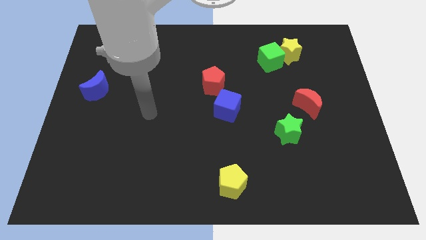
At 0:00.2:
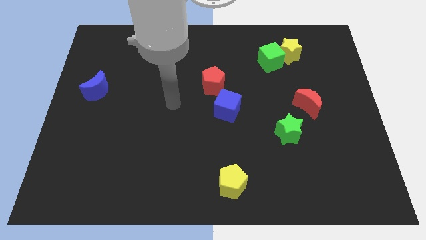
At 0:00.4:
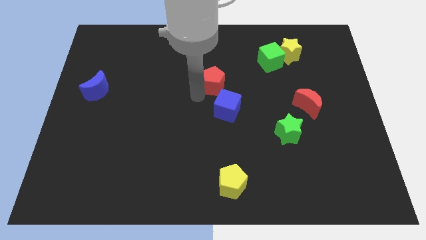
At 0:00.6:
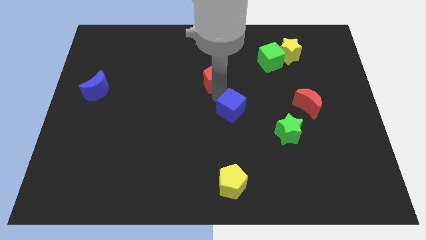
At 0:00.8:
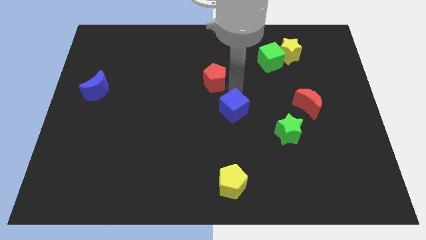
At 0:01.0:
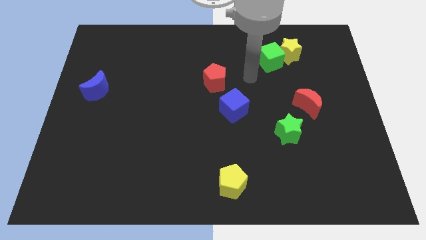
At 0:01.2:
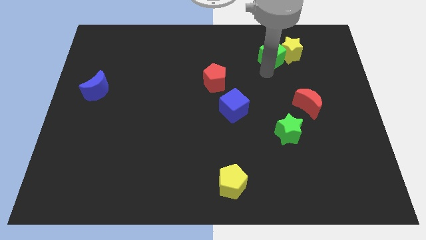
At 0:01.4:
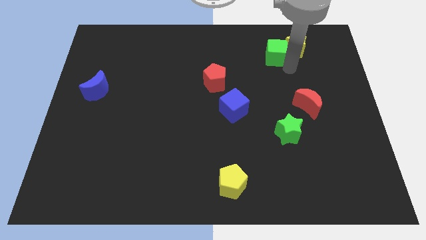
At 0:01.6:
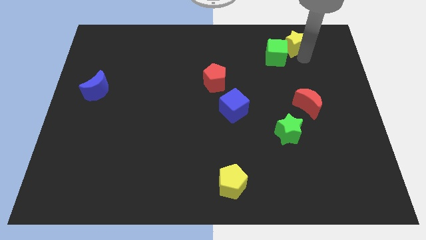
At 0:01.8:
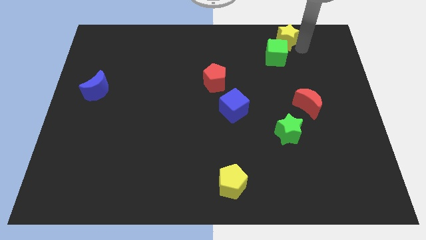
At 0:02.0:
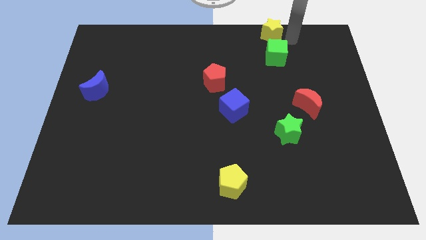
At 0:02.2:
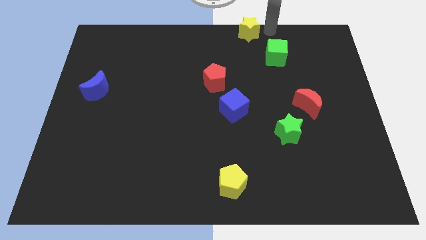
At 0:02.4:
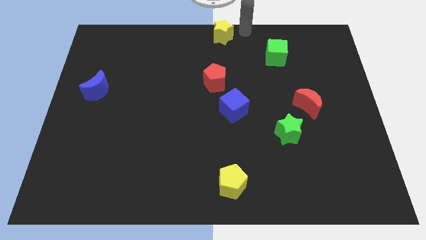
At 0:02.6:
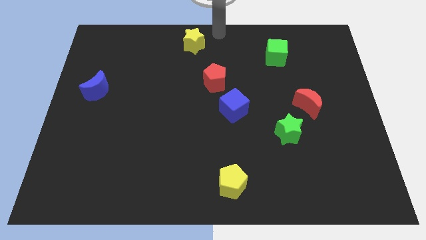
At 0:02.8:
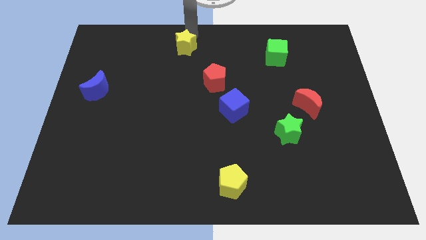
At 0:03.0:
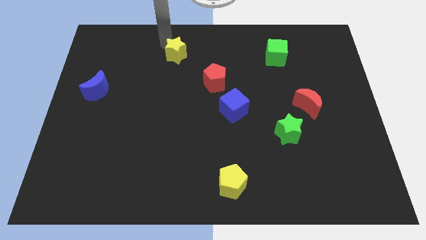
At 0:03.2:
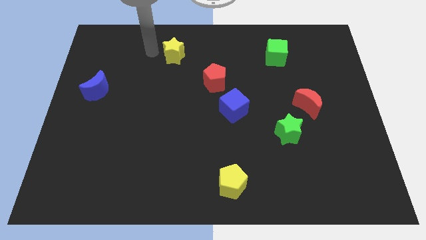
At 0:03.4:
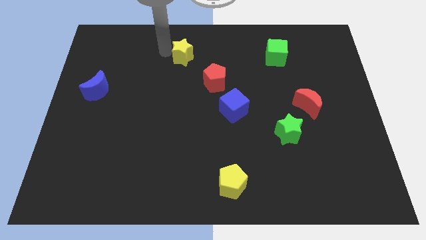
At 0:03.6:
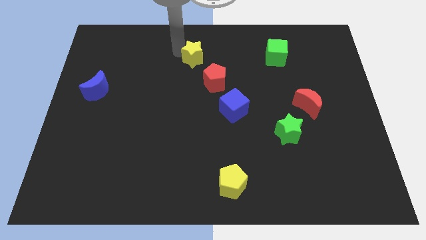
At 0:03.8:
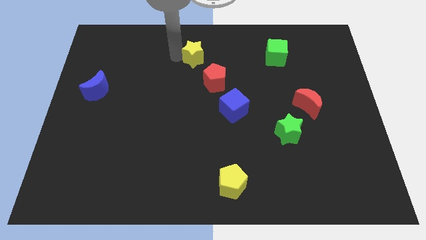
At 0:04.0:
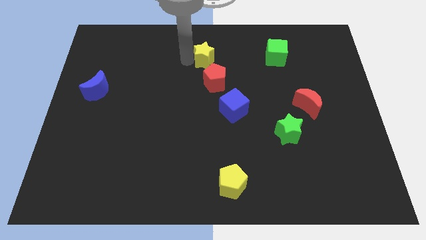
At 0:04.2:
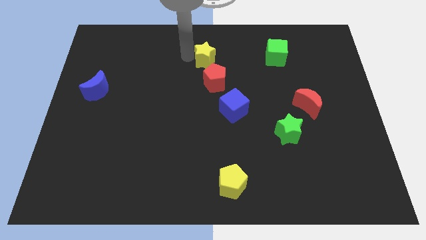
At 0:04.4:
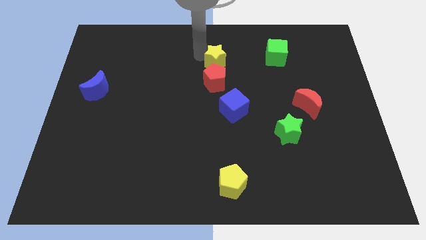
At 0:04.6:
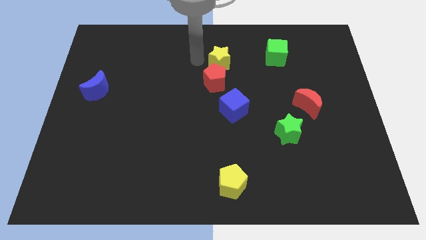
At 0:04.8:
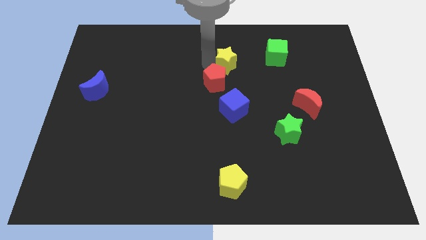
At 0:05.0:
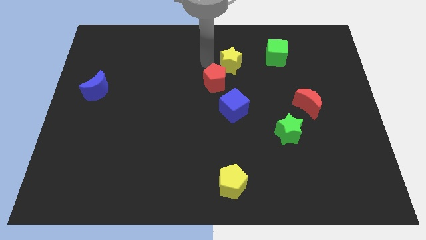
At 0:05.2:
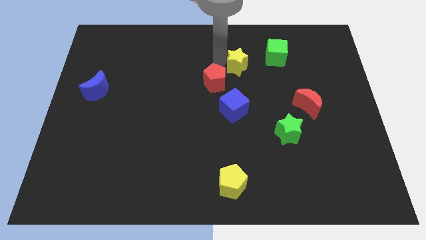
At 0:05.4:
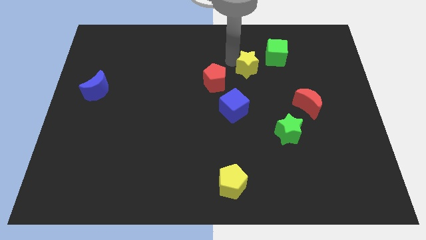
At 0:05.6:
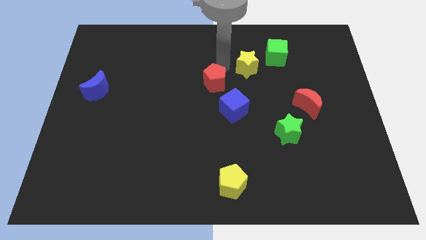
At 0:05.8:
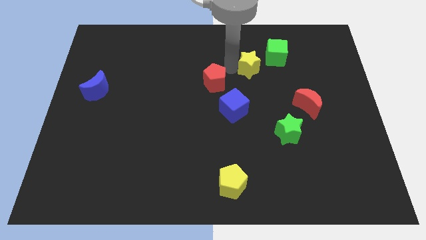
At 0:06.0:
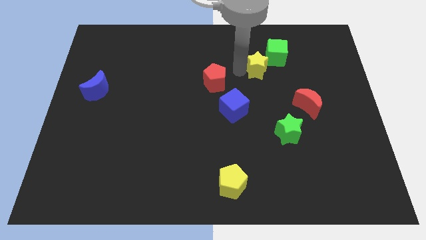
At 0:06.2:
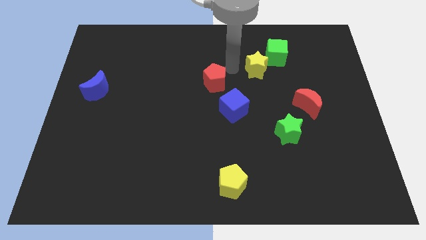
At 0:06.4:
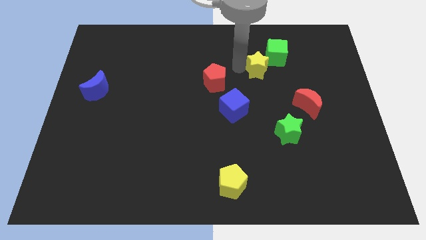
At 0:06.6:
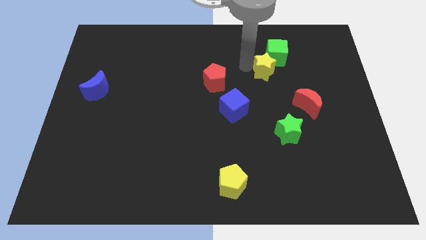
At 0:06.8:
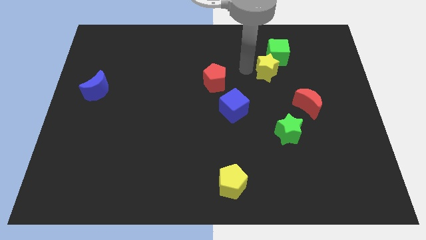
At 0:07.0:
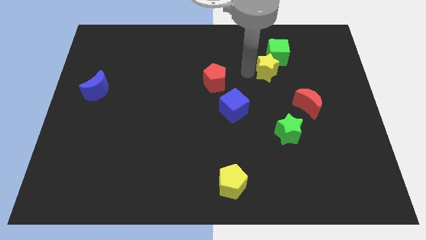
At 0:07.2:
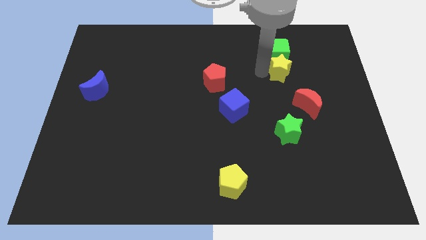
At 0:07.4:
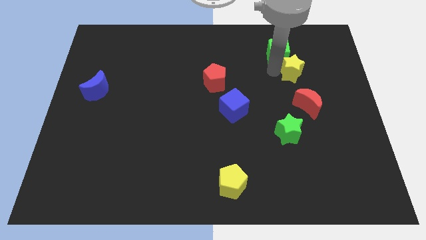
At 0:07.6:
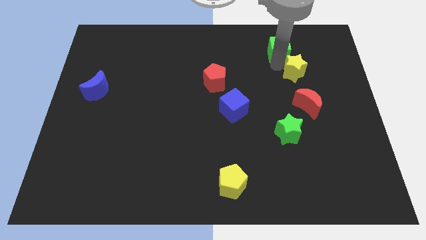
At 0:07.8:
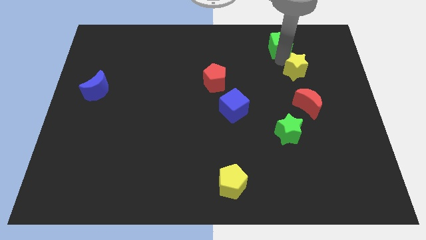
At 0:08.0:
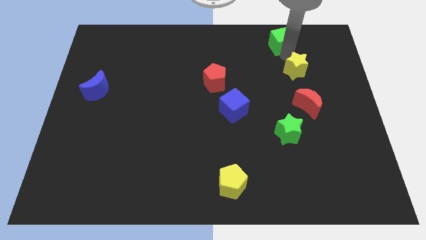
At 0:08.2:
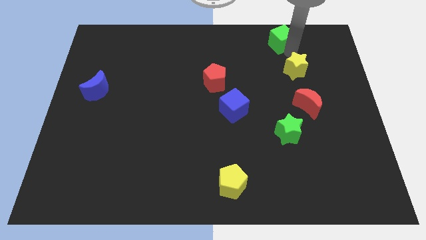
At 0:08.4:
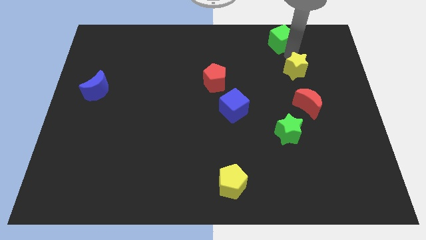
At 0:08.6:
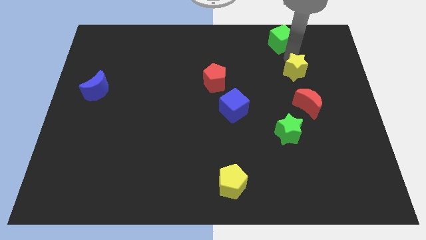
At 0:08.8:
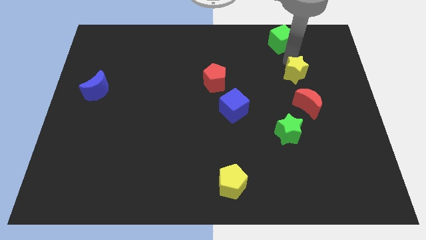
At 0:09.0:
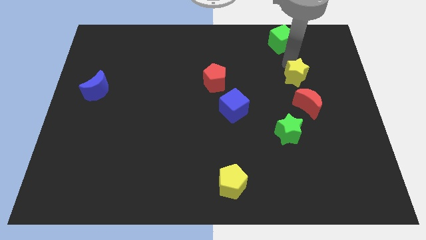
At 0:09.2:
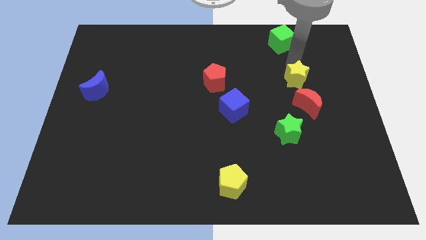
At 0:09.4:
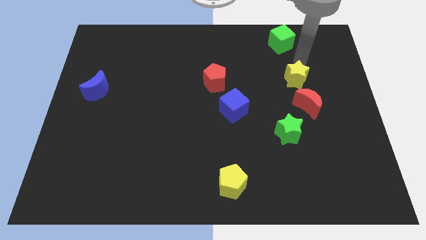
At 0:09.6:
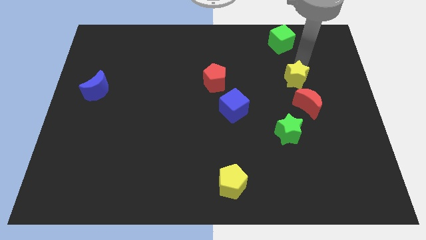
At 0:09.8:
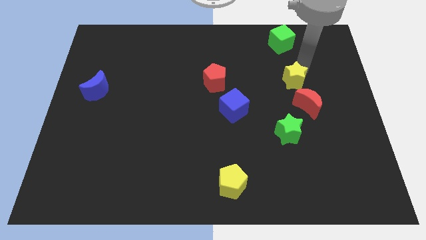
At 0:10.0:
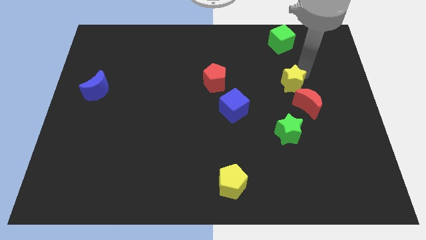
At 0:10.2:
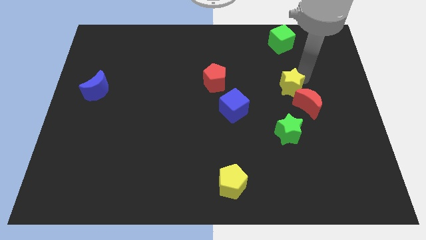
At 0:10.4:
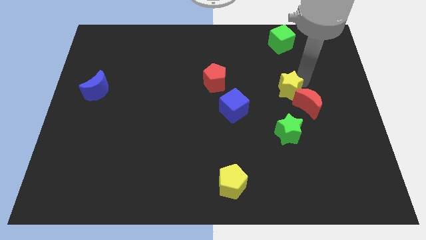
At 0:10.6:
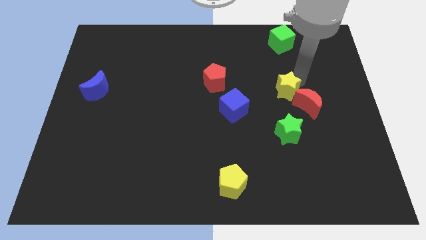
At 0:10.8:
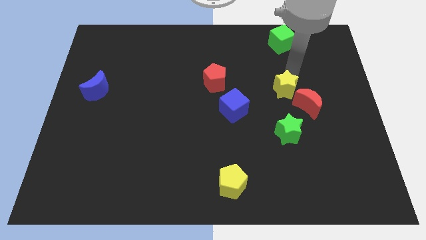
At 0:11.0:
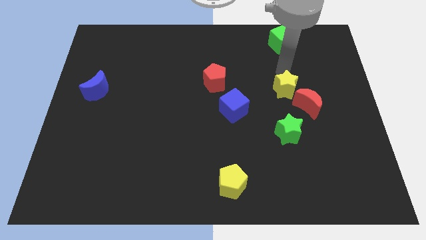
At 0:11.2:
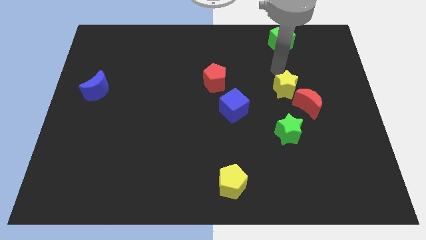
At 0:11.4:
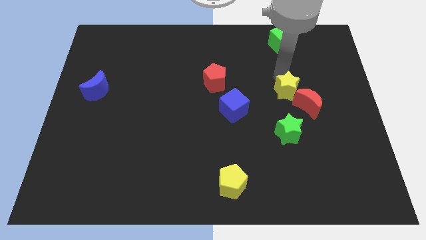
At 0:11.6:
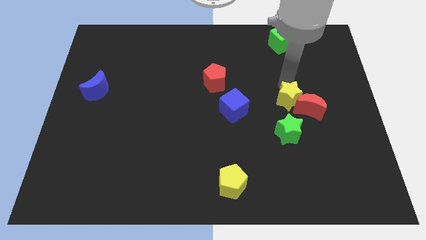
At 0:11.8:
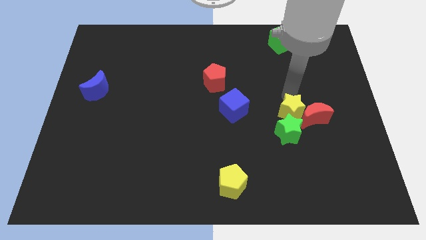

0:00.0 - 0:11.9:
push the yellow star to the green star

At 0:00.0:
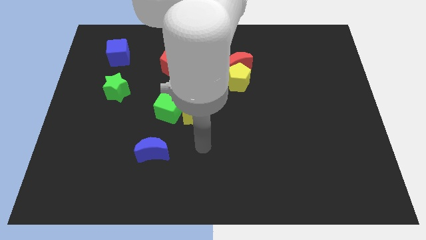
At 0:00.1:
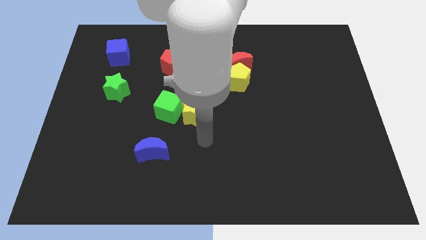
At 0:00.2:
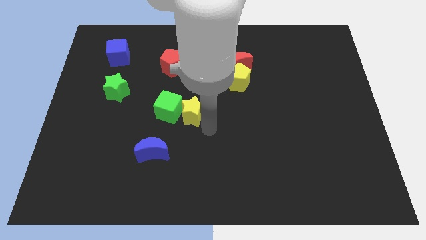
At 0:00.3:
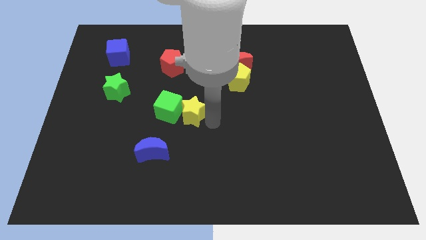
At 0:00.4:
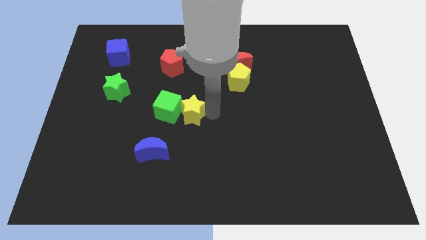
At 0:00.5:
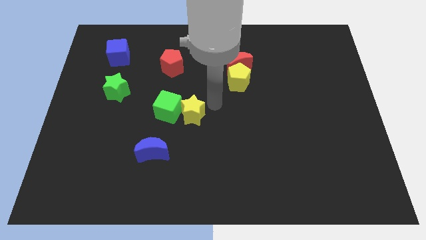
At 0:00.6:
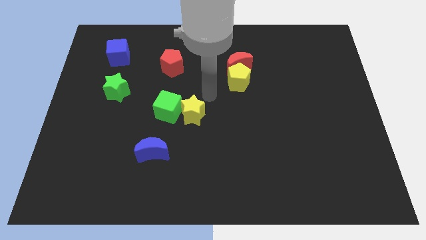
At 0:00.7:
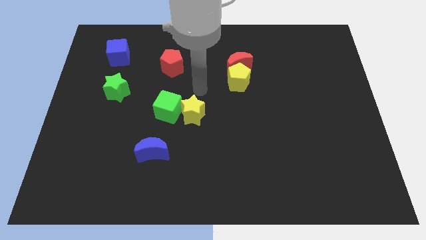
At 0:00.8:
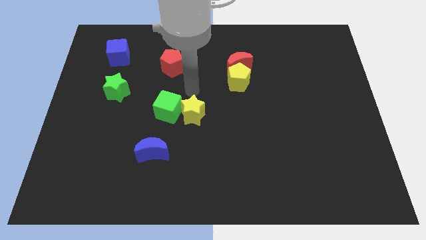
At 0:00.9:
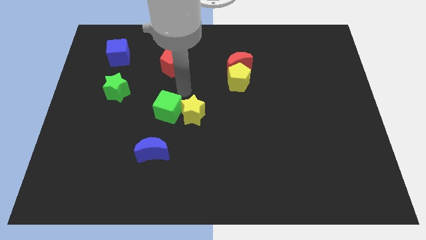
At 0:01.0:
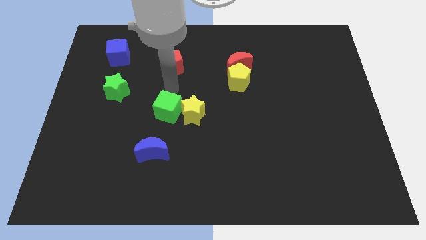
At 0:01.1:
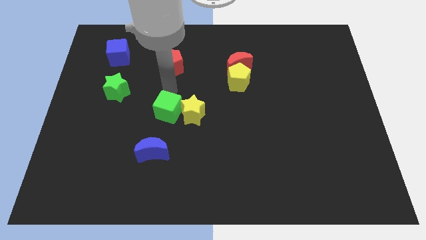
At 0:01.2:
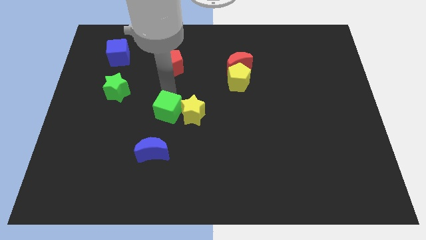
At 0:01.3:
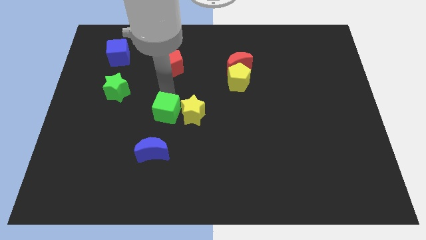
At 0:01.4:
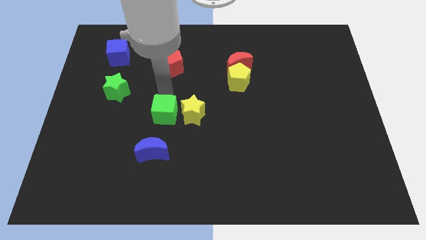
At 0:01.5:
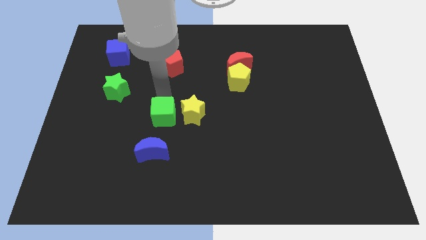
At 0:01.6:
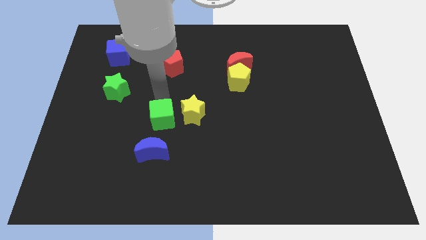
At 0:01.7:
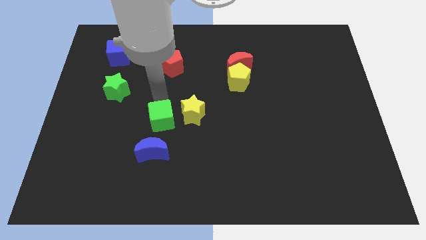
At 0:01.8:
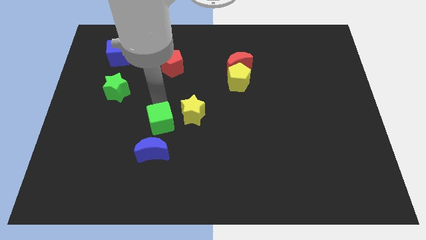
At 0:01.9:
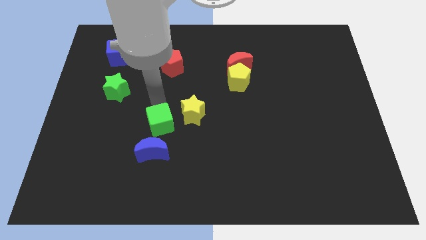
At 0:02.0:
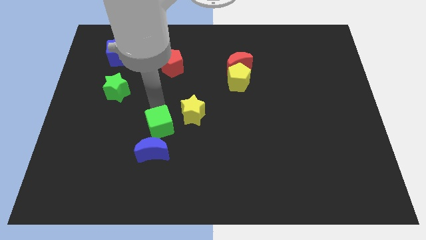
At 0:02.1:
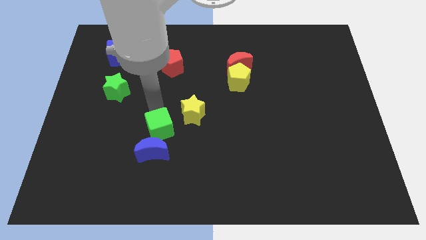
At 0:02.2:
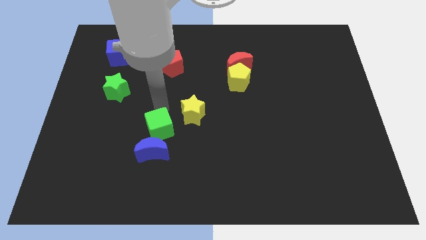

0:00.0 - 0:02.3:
push the green cube towards the blue moon
